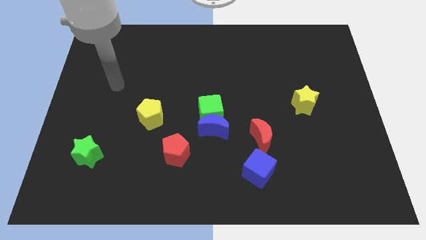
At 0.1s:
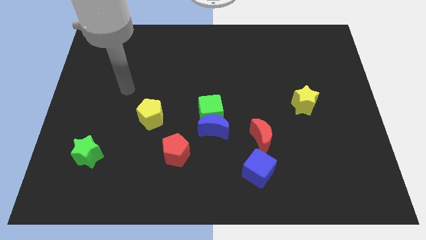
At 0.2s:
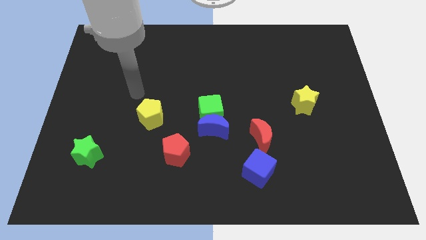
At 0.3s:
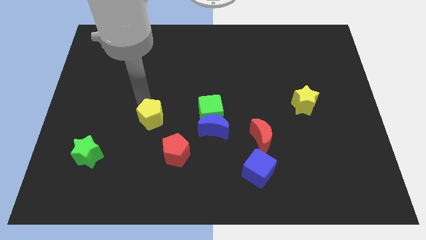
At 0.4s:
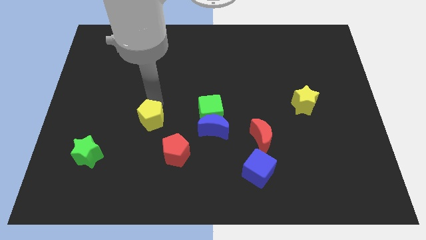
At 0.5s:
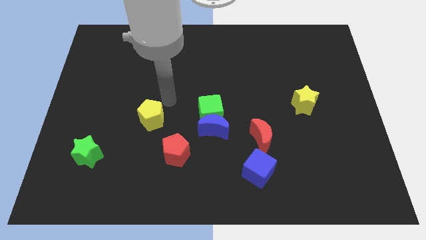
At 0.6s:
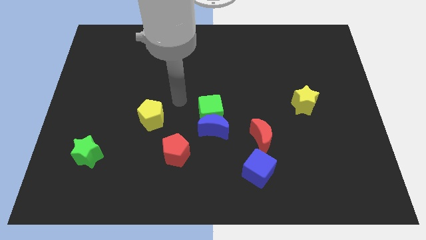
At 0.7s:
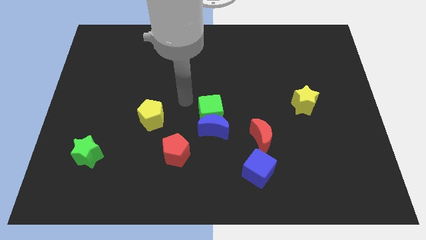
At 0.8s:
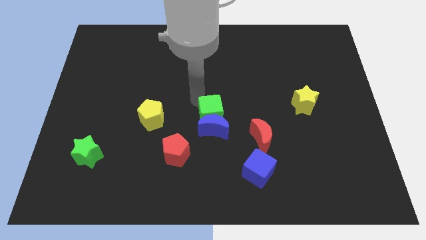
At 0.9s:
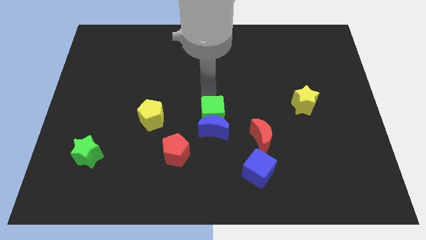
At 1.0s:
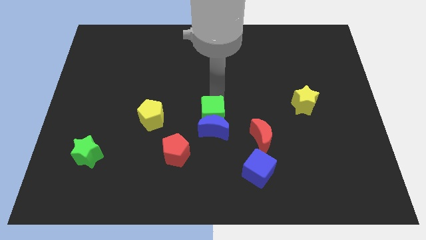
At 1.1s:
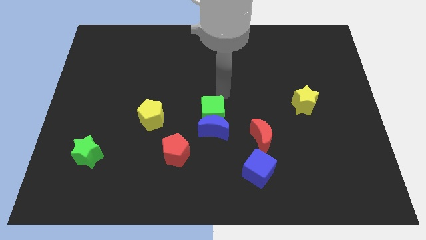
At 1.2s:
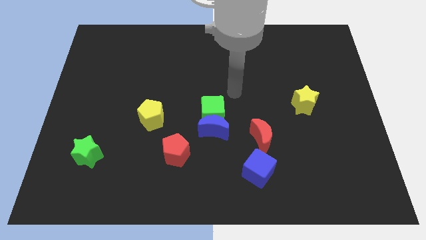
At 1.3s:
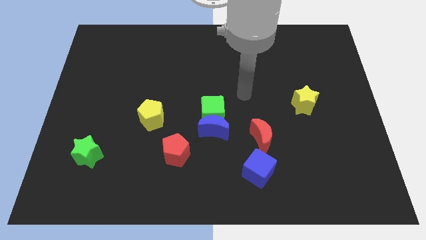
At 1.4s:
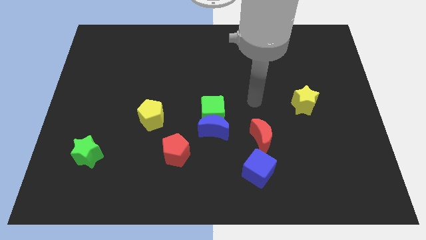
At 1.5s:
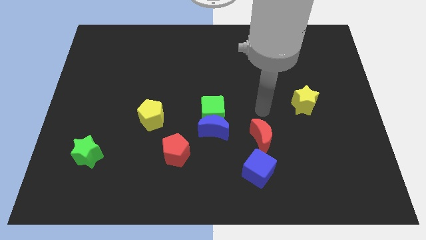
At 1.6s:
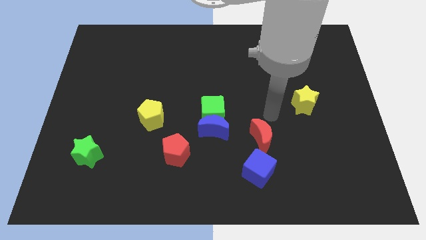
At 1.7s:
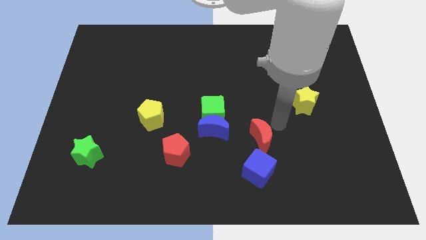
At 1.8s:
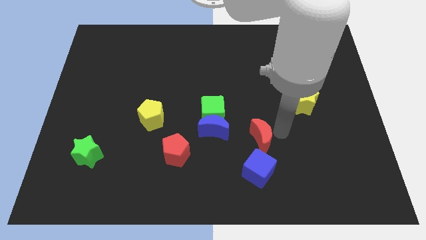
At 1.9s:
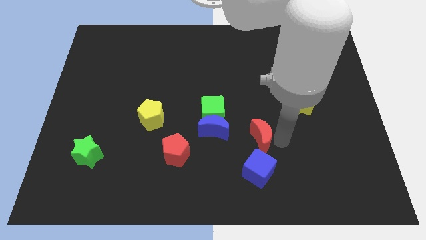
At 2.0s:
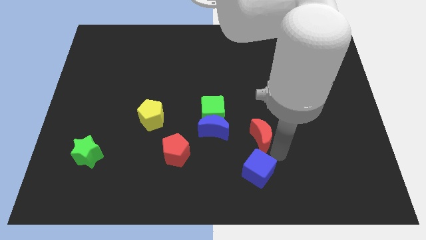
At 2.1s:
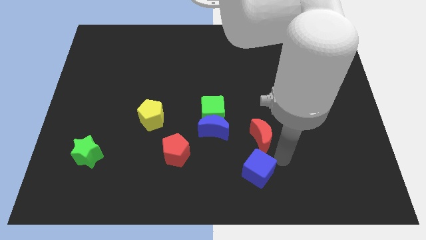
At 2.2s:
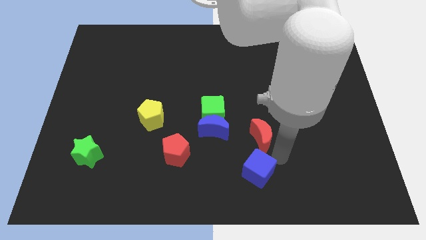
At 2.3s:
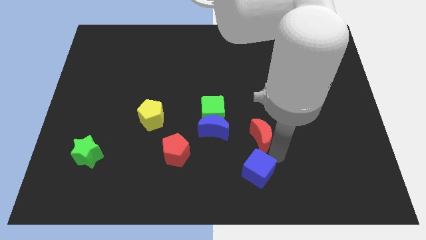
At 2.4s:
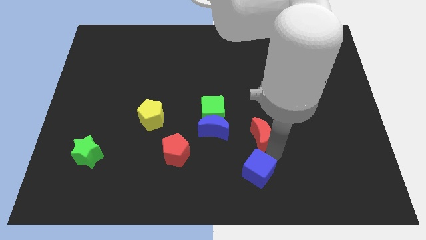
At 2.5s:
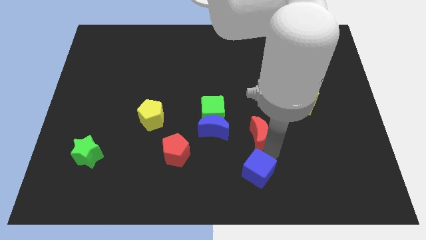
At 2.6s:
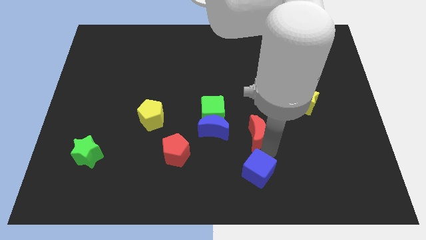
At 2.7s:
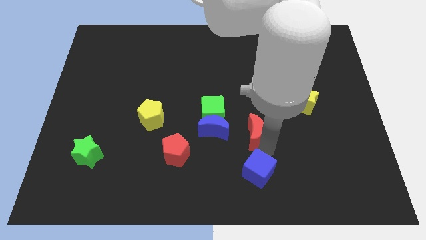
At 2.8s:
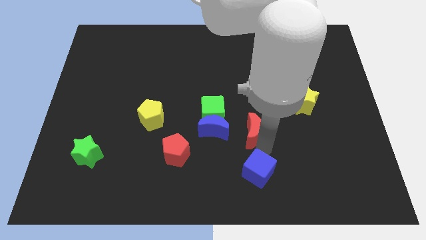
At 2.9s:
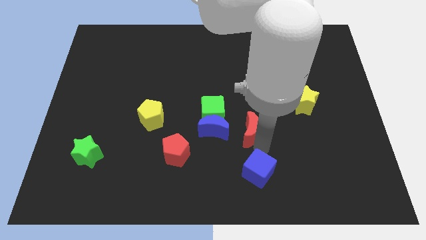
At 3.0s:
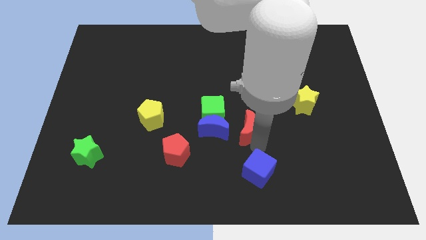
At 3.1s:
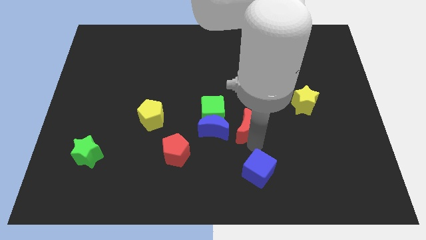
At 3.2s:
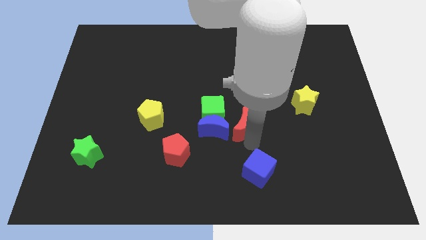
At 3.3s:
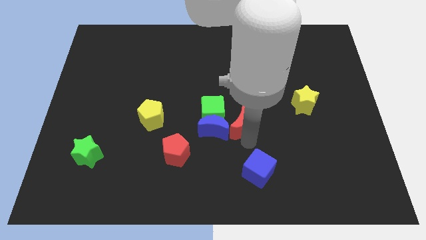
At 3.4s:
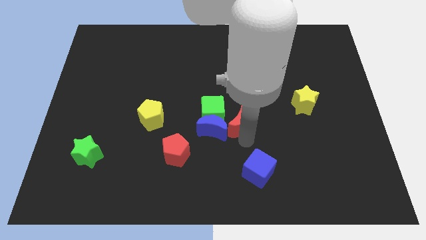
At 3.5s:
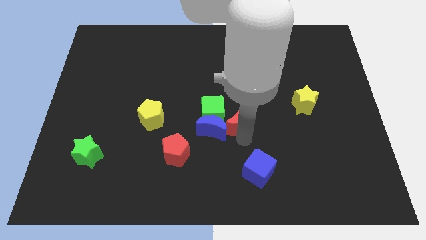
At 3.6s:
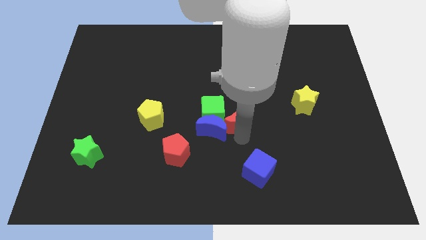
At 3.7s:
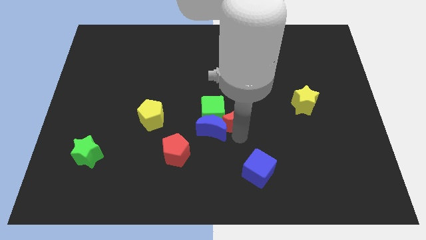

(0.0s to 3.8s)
slide the red moon somewhat up and to the left diagonally

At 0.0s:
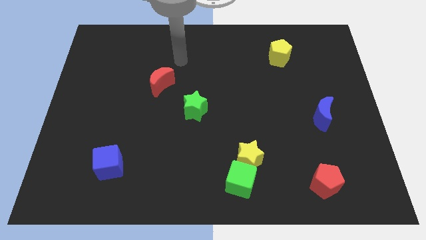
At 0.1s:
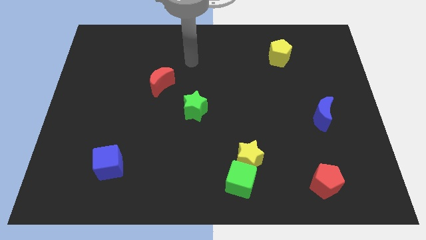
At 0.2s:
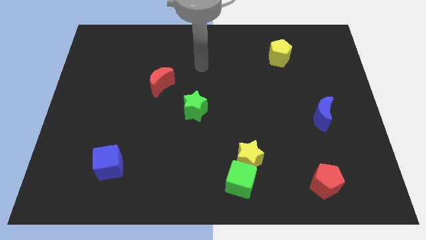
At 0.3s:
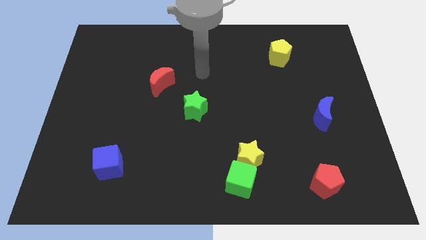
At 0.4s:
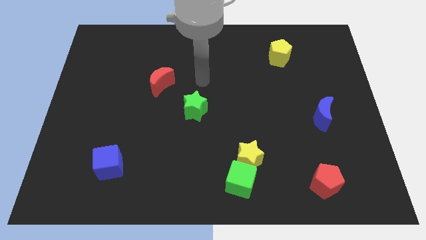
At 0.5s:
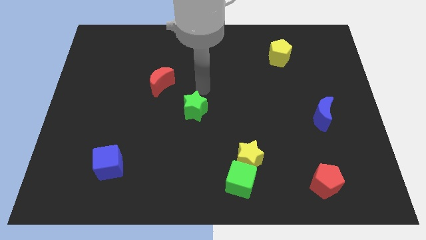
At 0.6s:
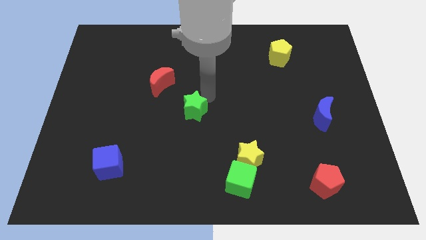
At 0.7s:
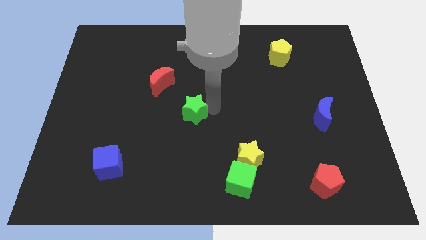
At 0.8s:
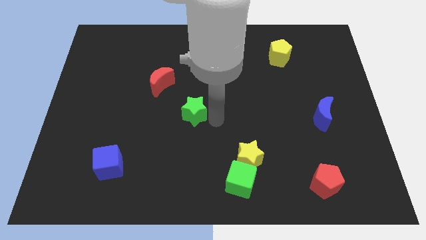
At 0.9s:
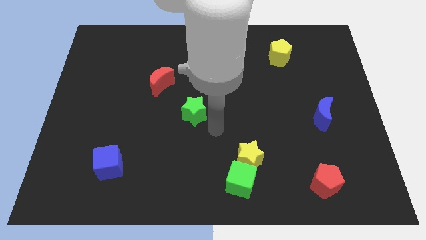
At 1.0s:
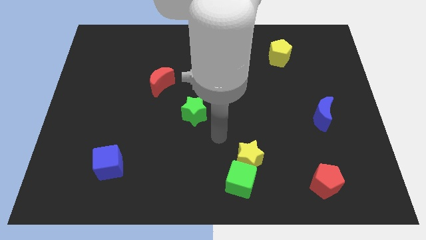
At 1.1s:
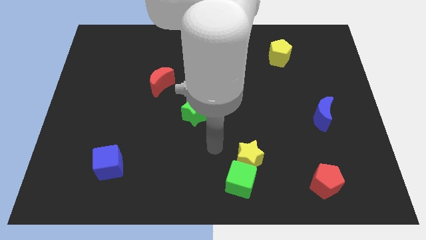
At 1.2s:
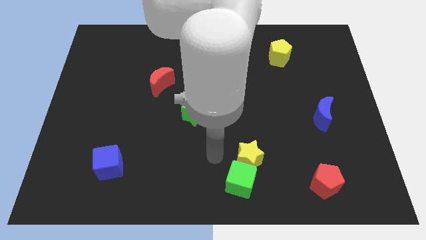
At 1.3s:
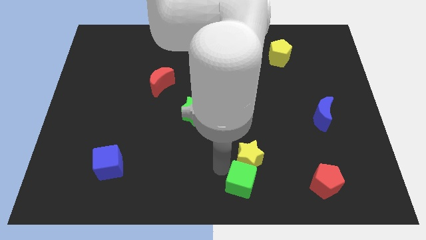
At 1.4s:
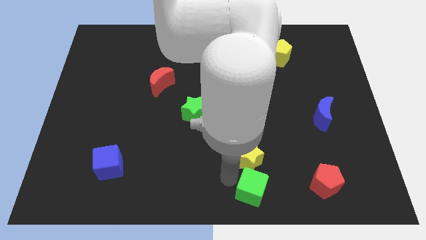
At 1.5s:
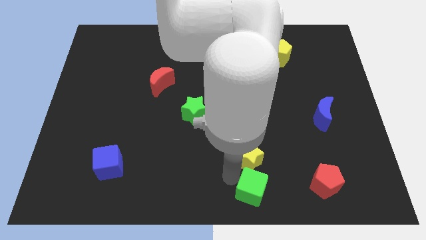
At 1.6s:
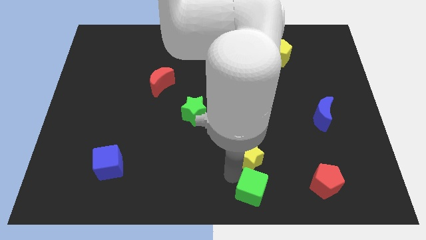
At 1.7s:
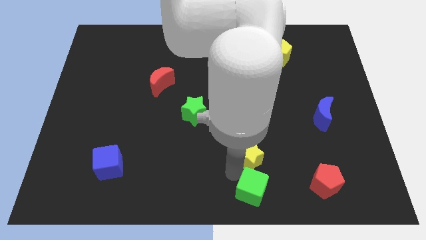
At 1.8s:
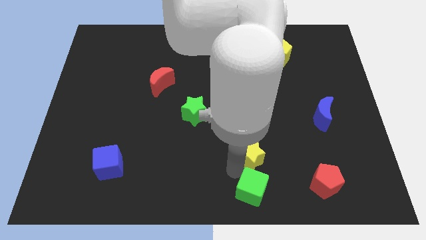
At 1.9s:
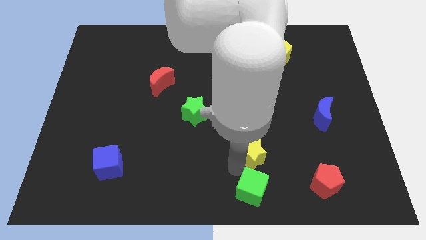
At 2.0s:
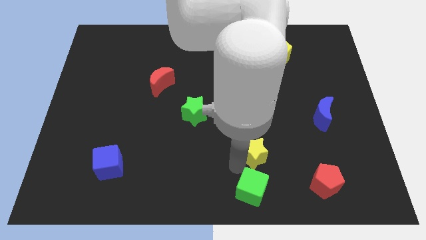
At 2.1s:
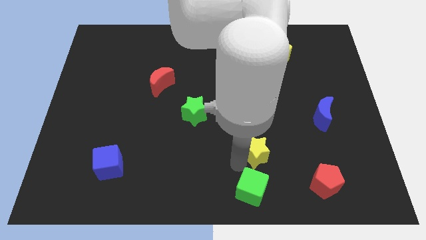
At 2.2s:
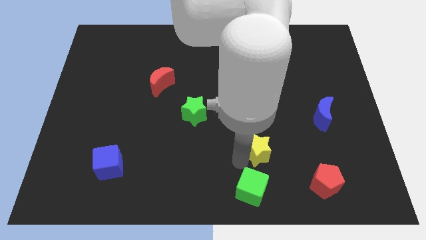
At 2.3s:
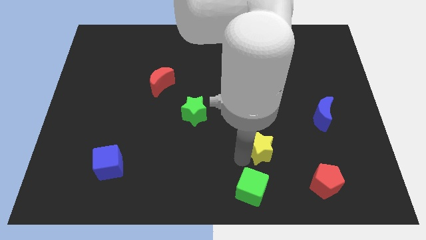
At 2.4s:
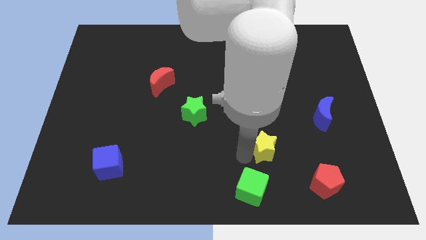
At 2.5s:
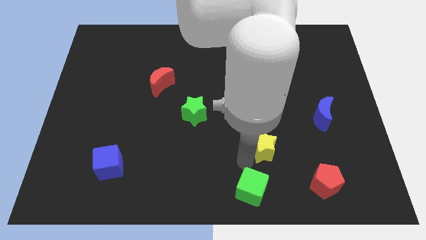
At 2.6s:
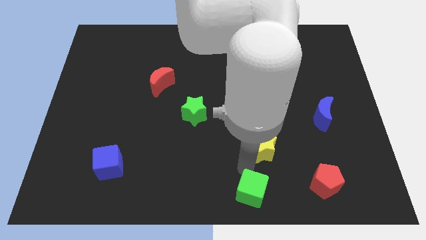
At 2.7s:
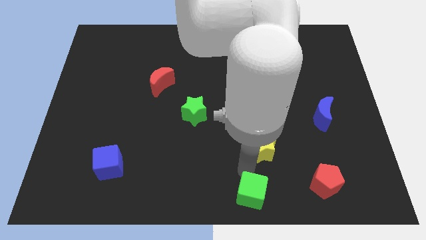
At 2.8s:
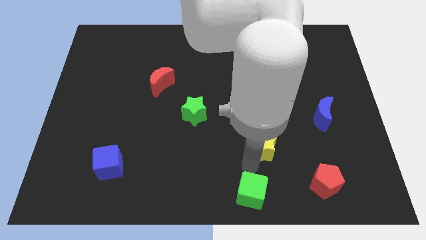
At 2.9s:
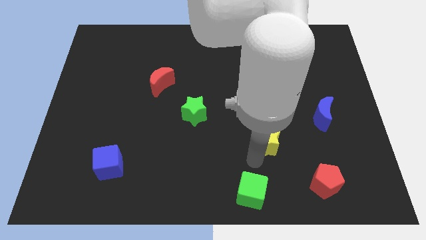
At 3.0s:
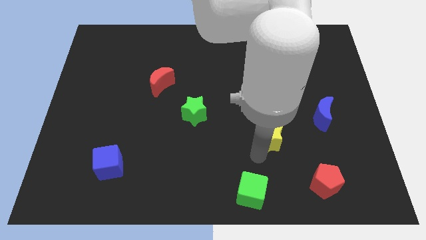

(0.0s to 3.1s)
slide the yellow star a little upwards and then to the right

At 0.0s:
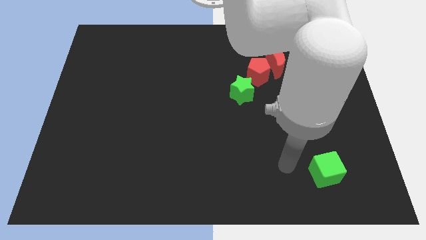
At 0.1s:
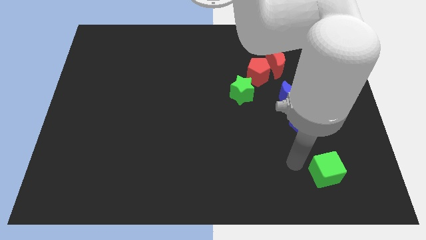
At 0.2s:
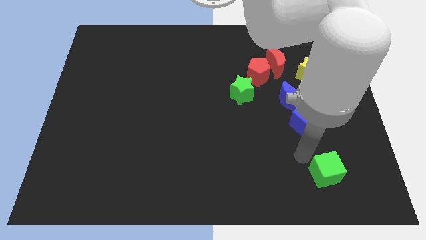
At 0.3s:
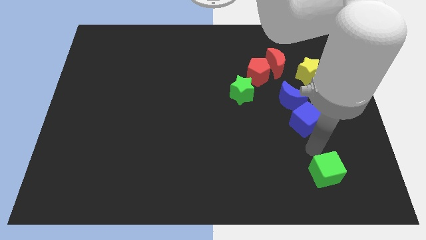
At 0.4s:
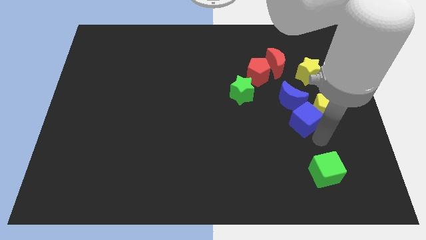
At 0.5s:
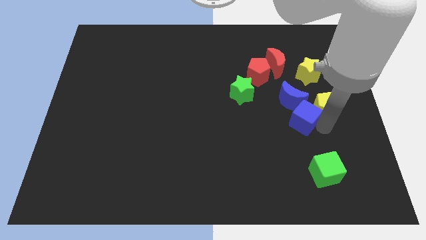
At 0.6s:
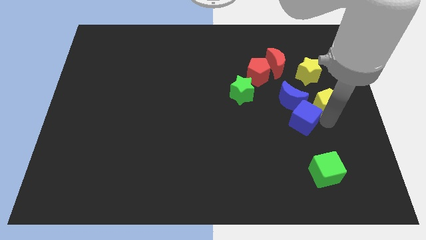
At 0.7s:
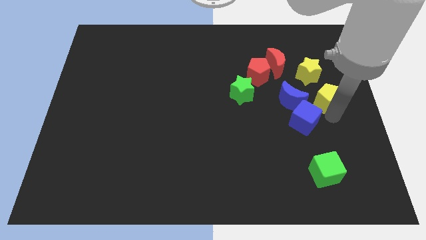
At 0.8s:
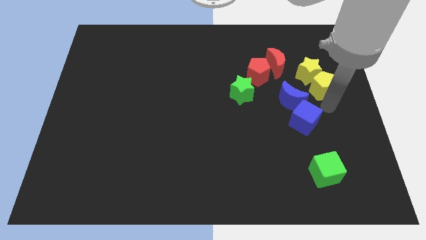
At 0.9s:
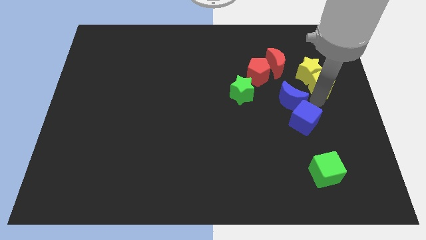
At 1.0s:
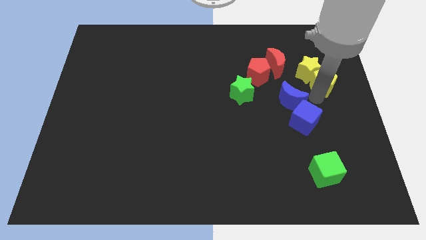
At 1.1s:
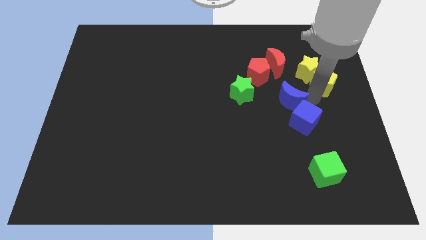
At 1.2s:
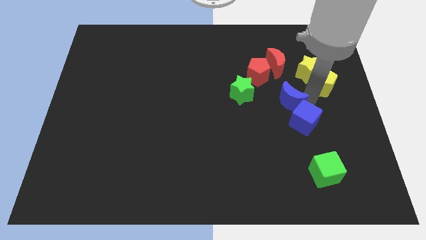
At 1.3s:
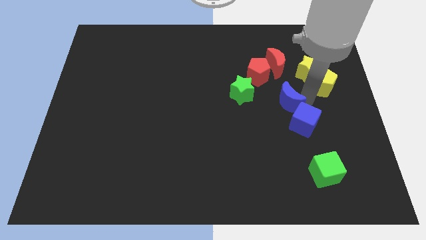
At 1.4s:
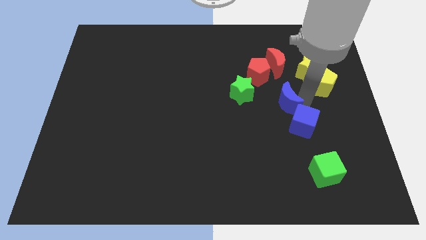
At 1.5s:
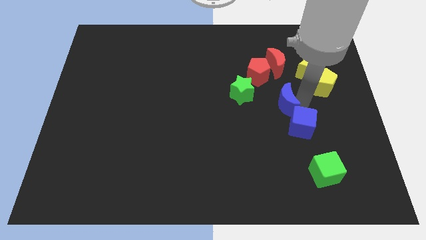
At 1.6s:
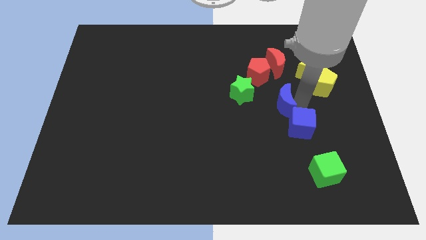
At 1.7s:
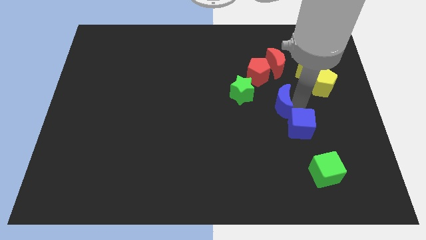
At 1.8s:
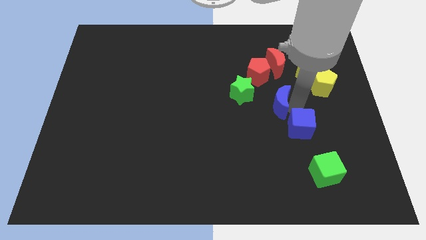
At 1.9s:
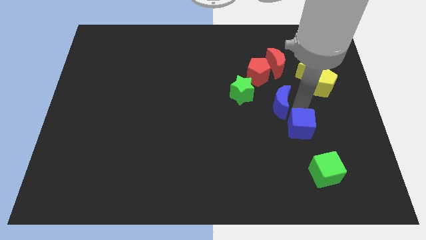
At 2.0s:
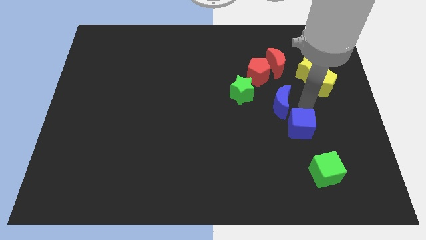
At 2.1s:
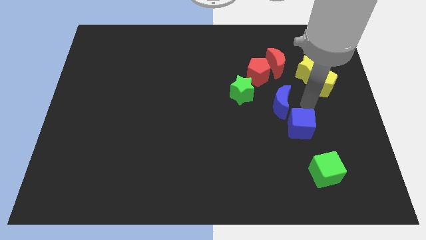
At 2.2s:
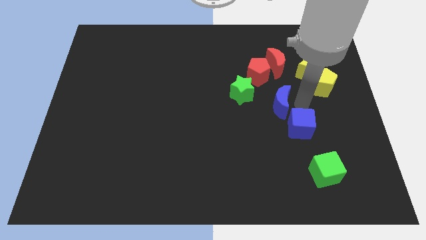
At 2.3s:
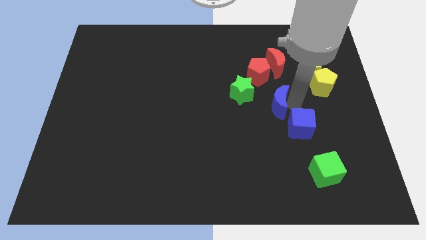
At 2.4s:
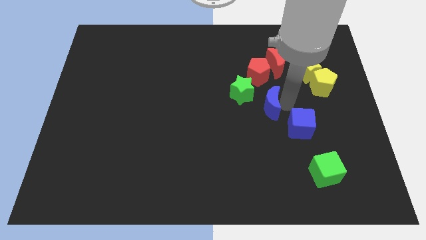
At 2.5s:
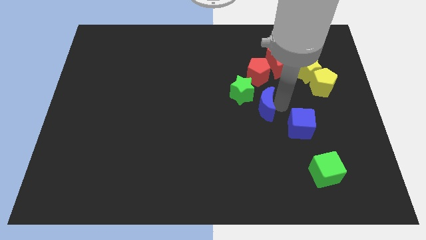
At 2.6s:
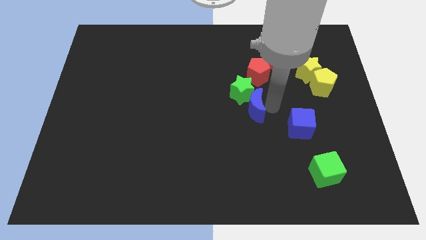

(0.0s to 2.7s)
slightly slide the blue moon left
